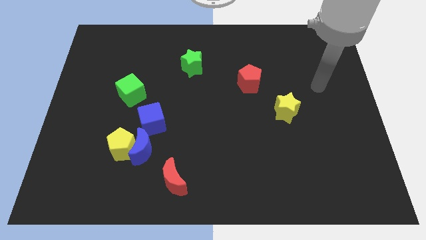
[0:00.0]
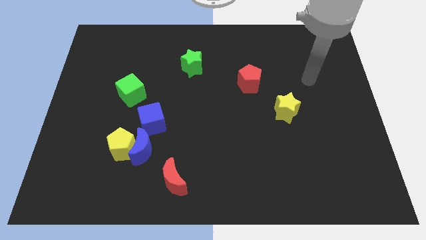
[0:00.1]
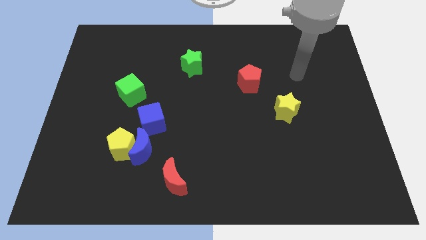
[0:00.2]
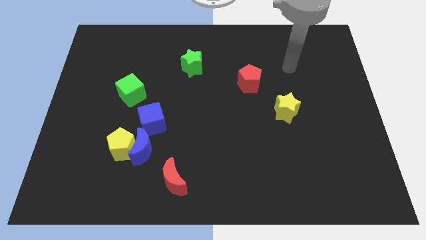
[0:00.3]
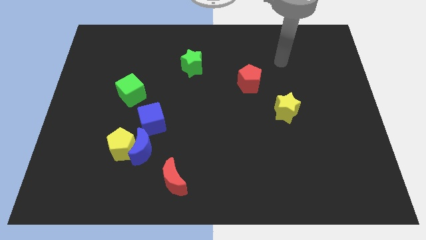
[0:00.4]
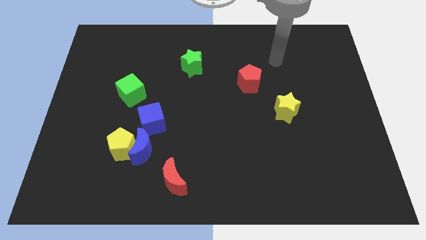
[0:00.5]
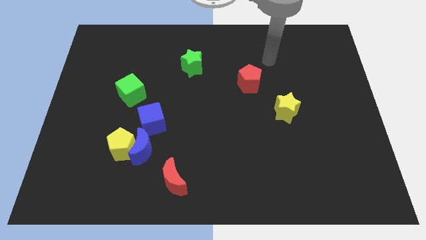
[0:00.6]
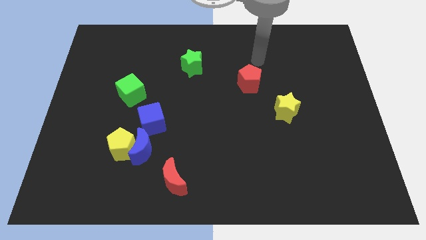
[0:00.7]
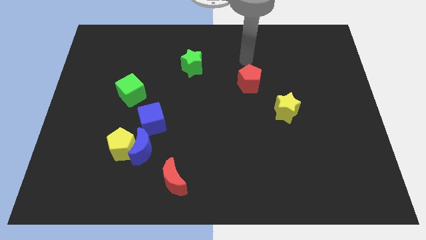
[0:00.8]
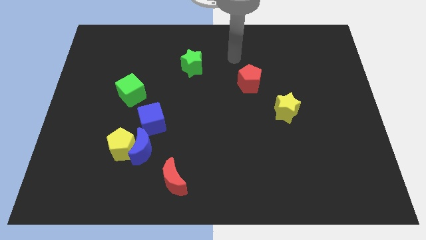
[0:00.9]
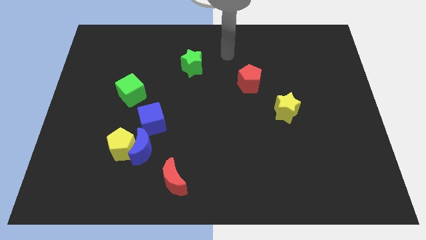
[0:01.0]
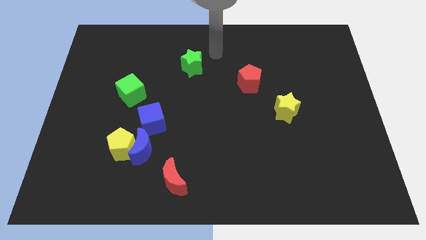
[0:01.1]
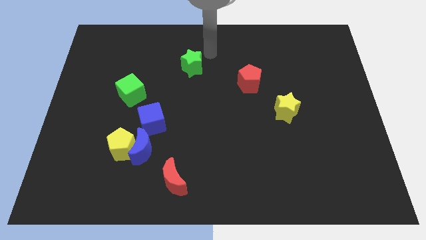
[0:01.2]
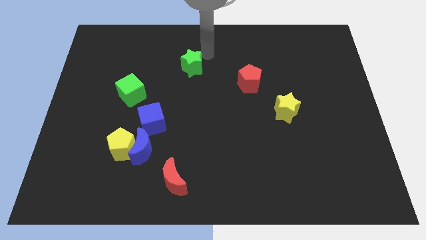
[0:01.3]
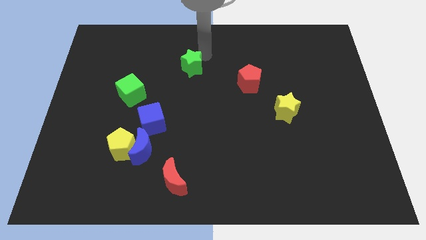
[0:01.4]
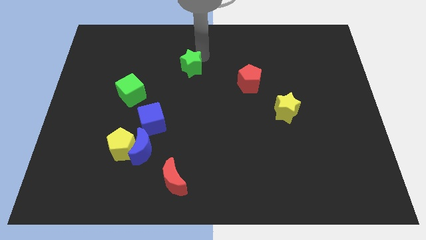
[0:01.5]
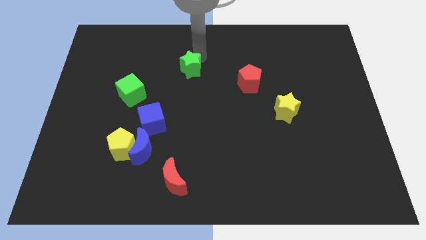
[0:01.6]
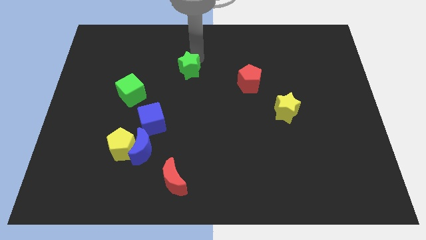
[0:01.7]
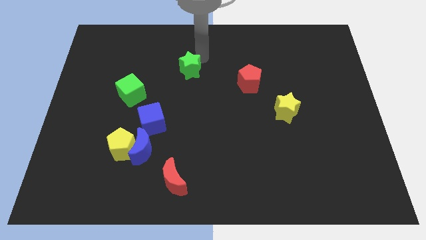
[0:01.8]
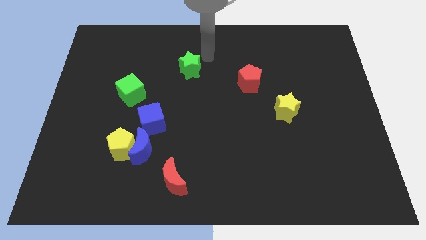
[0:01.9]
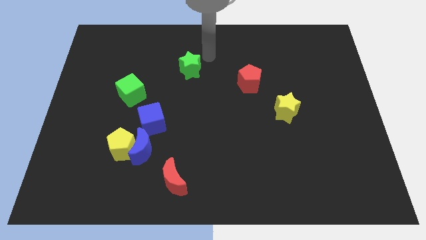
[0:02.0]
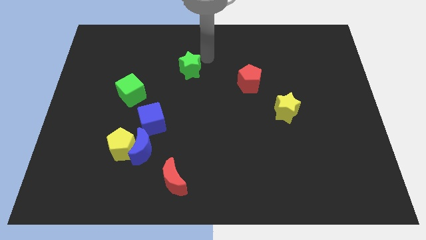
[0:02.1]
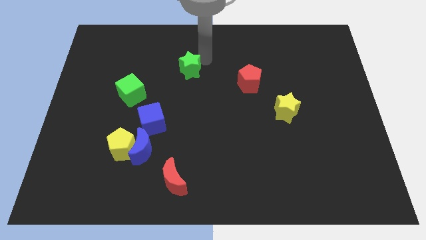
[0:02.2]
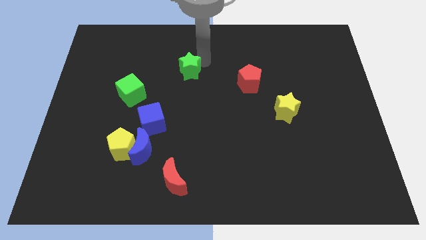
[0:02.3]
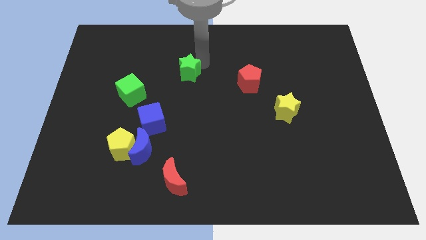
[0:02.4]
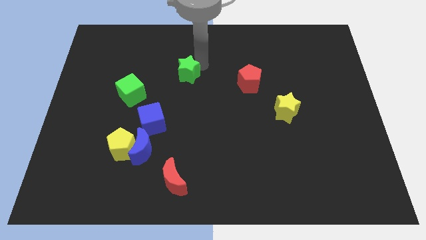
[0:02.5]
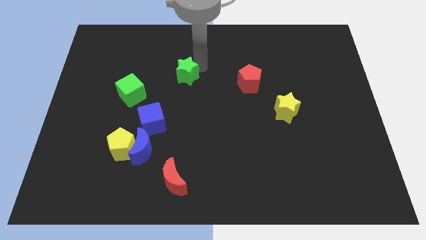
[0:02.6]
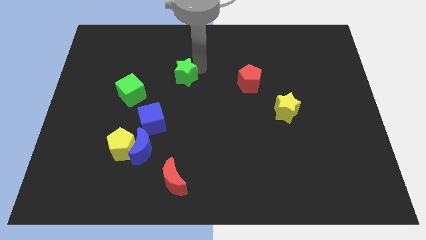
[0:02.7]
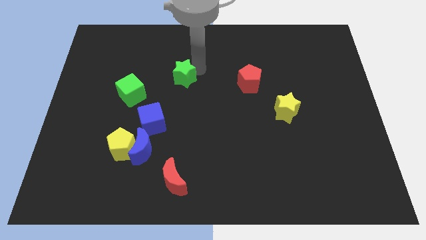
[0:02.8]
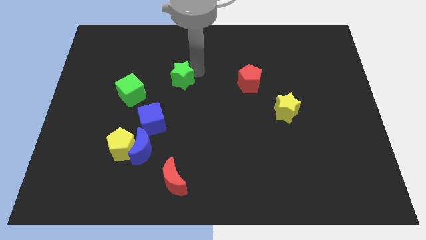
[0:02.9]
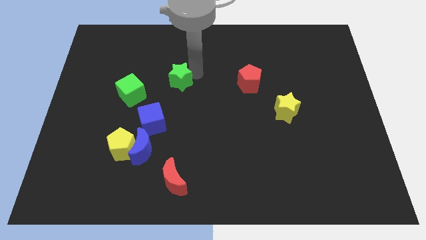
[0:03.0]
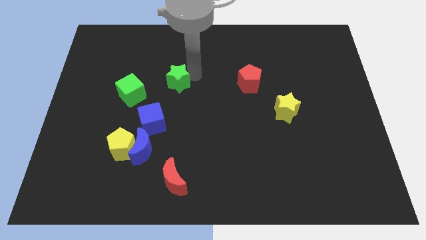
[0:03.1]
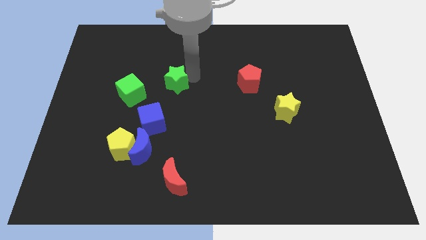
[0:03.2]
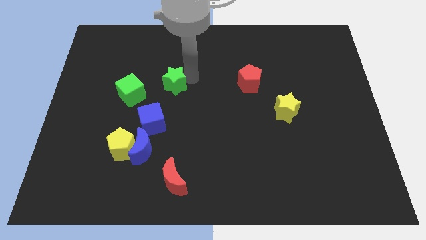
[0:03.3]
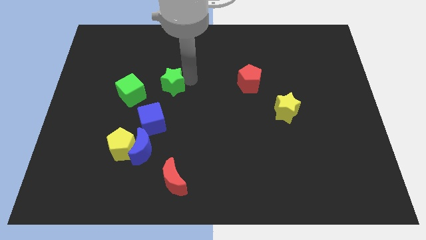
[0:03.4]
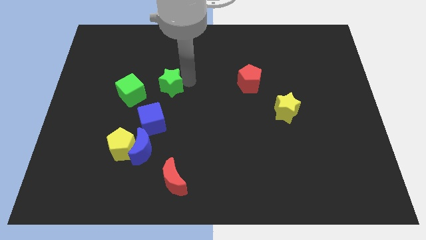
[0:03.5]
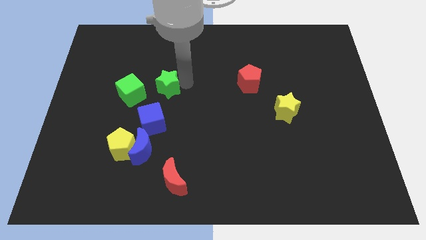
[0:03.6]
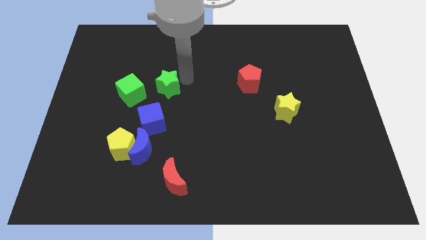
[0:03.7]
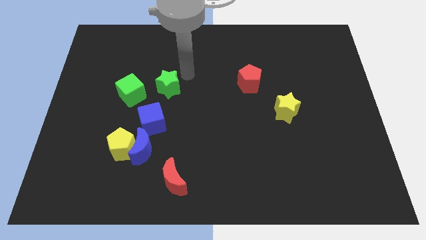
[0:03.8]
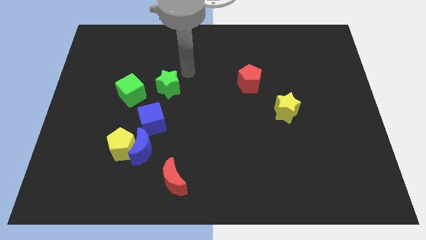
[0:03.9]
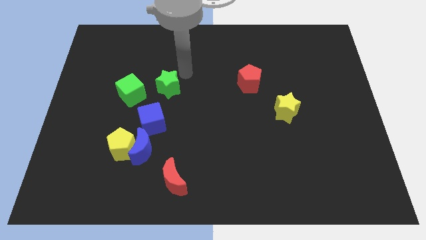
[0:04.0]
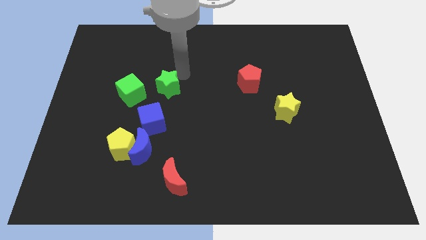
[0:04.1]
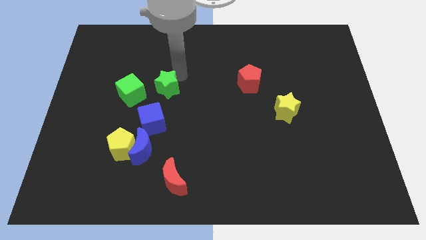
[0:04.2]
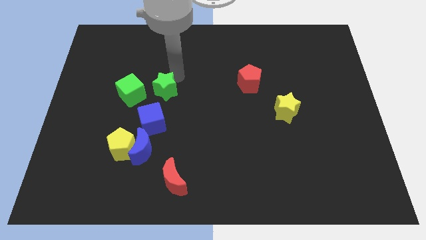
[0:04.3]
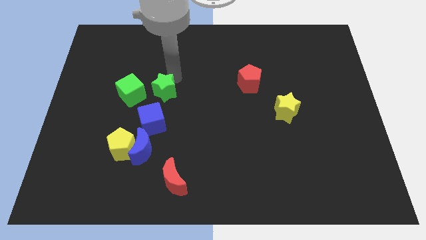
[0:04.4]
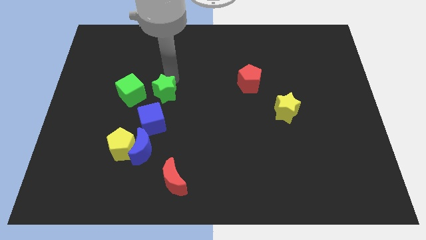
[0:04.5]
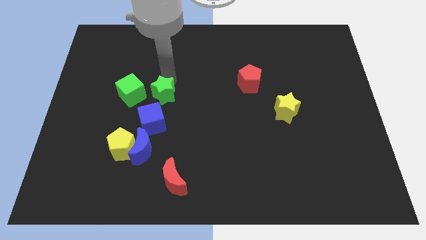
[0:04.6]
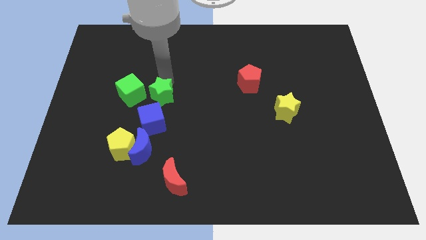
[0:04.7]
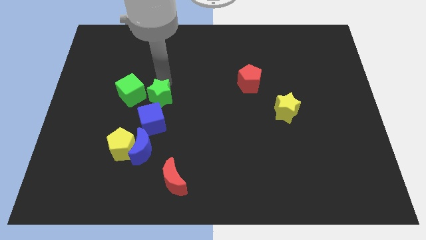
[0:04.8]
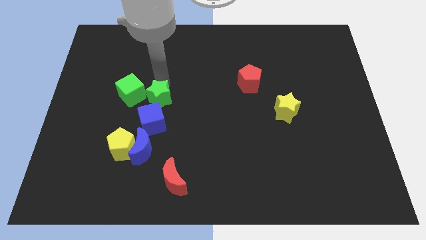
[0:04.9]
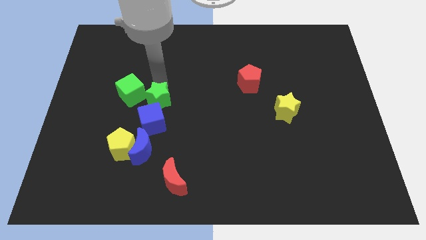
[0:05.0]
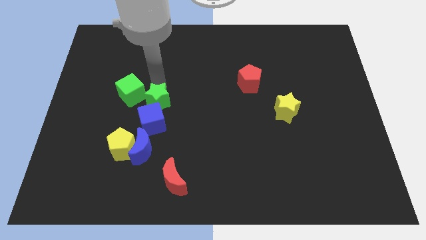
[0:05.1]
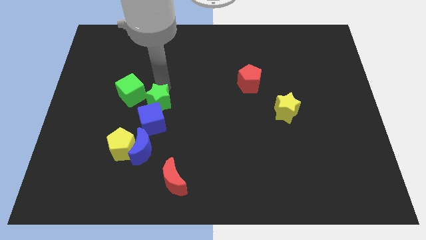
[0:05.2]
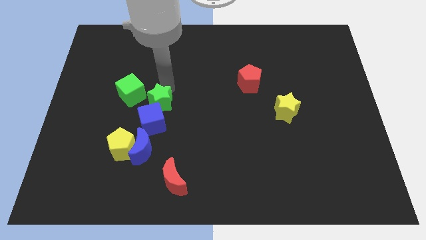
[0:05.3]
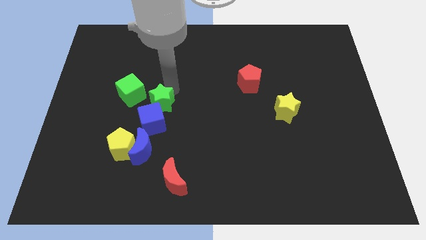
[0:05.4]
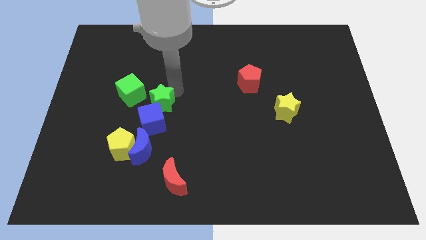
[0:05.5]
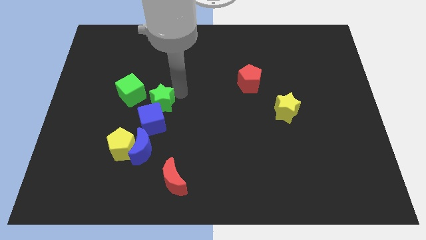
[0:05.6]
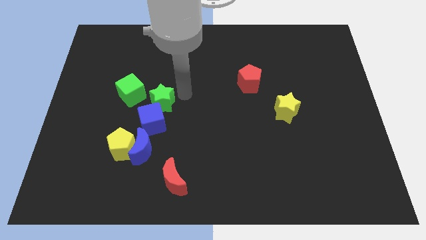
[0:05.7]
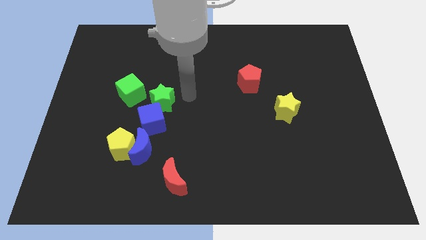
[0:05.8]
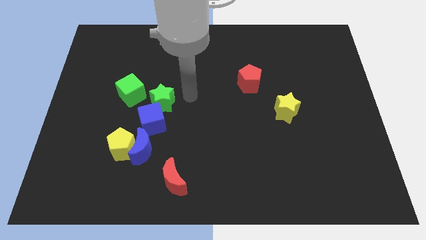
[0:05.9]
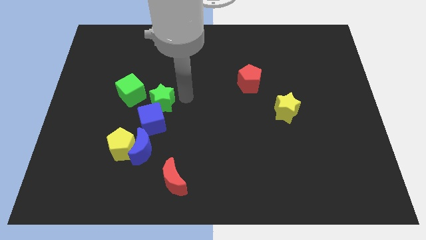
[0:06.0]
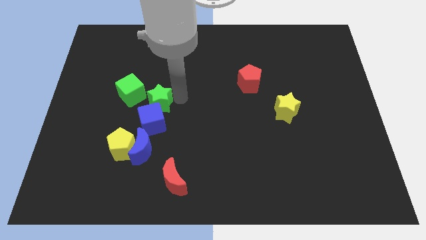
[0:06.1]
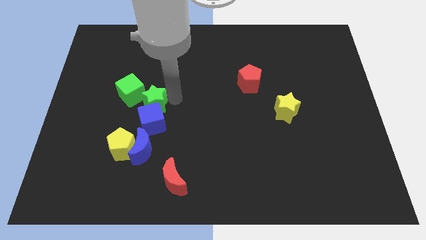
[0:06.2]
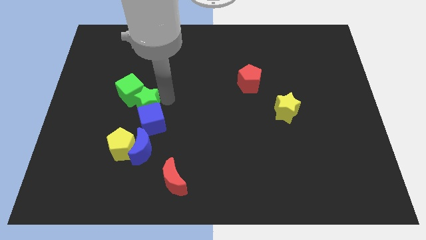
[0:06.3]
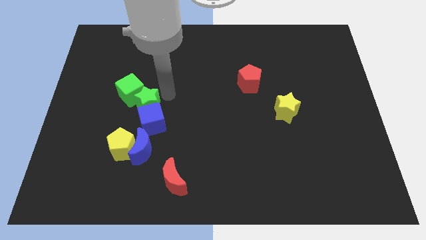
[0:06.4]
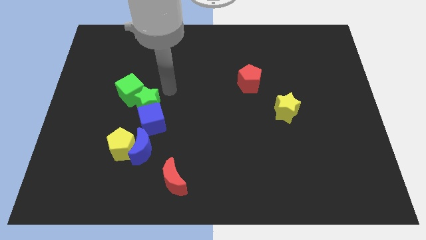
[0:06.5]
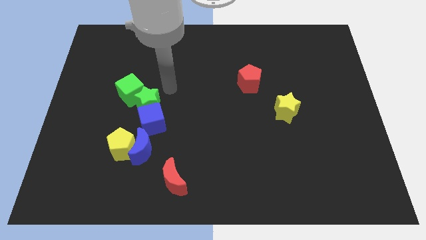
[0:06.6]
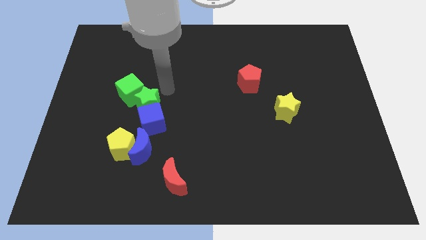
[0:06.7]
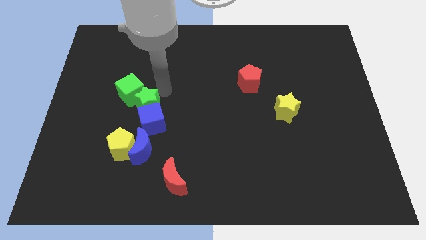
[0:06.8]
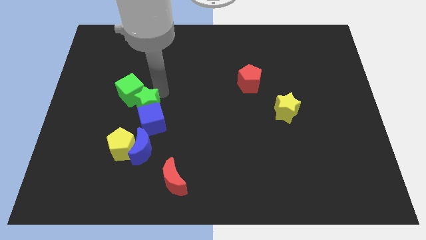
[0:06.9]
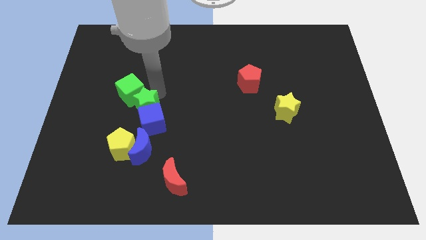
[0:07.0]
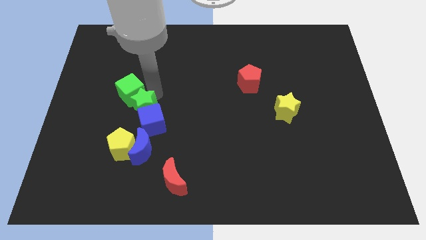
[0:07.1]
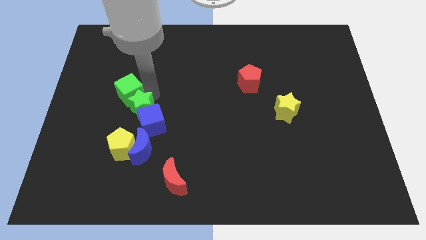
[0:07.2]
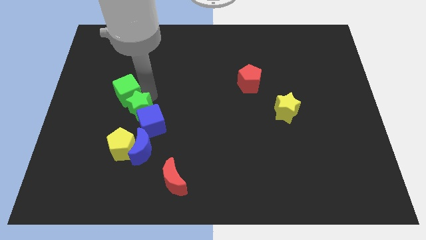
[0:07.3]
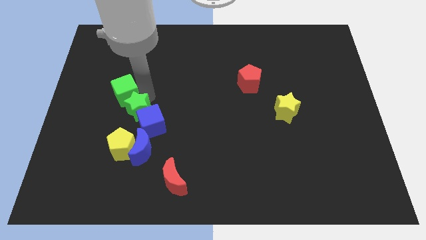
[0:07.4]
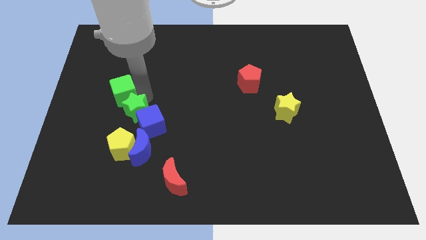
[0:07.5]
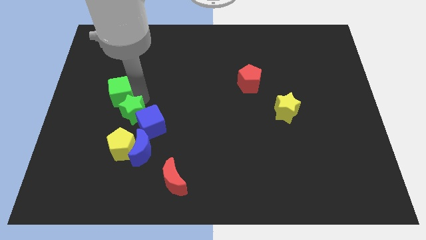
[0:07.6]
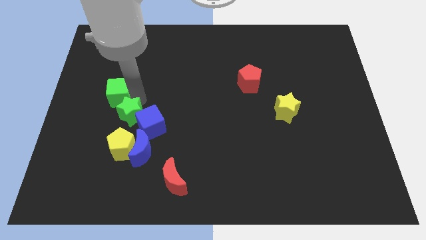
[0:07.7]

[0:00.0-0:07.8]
slide the green star diagonally down and left

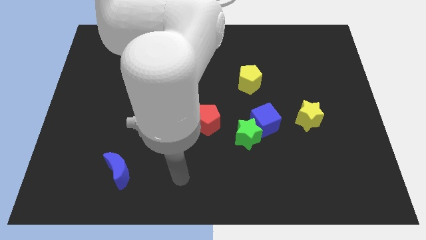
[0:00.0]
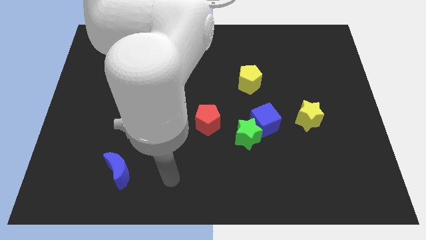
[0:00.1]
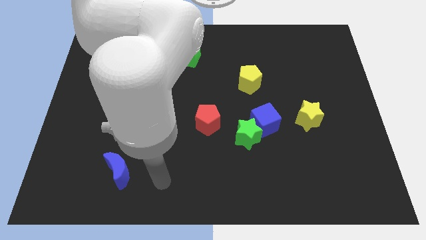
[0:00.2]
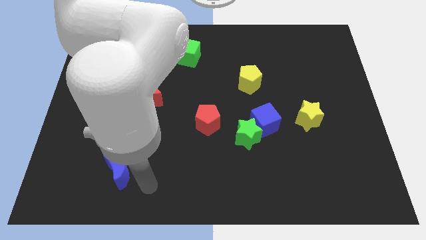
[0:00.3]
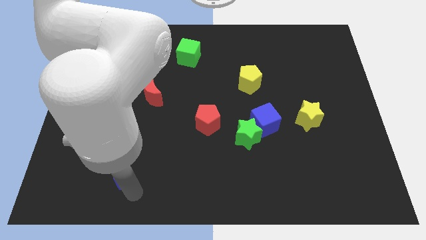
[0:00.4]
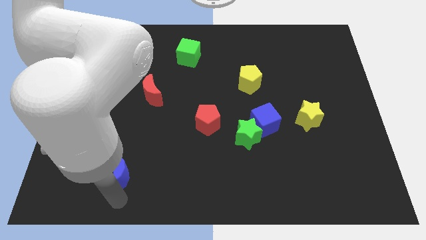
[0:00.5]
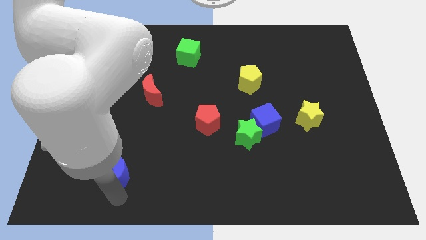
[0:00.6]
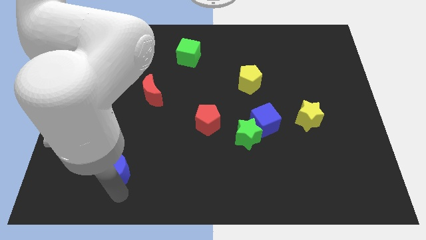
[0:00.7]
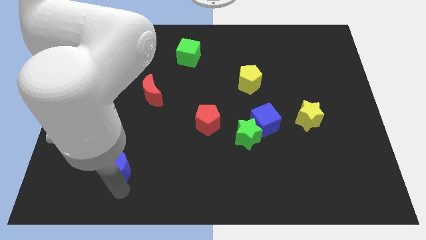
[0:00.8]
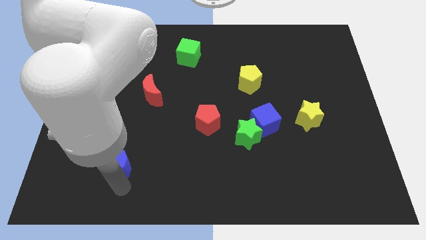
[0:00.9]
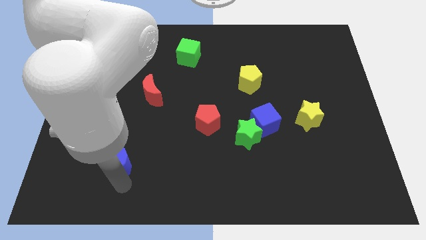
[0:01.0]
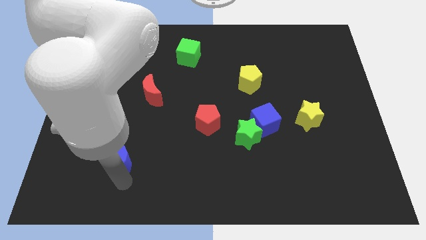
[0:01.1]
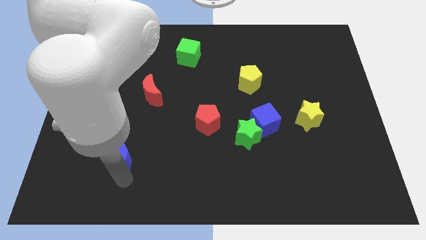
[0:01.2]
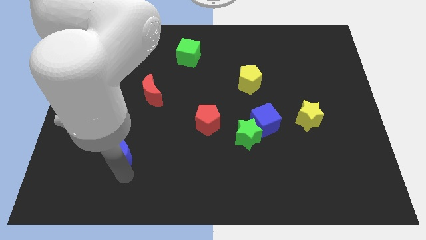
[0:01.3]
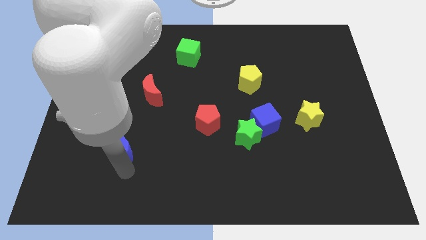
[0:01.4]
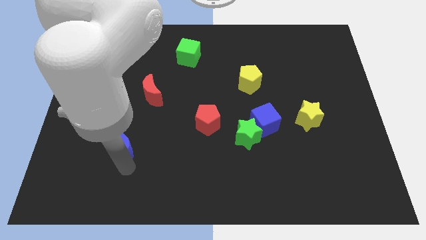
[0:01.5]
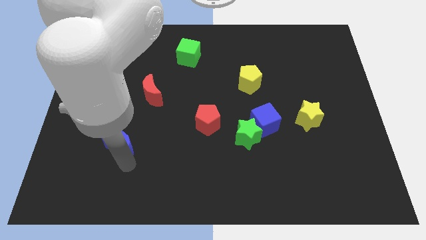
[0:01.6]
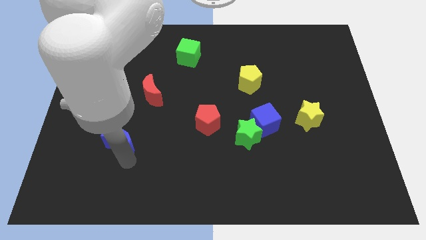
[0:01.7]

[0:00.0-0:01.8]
move the blue moon up somewhat
